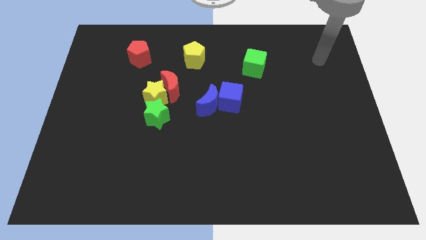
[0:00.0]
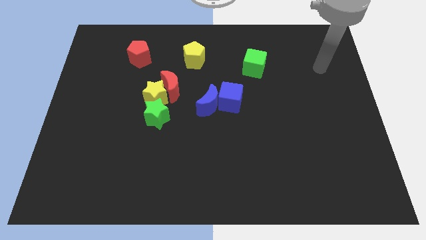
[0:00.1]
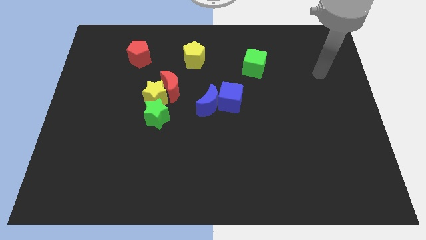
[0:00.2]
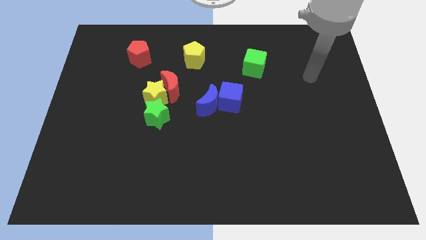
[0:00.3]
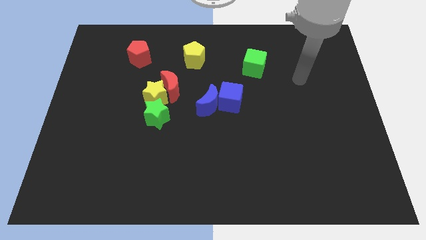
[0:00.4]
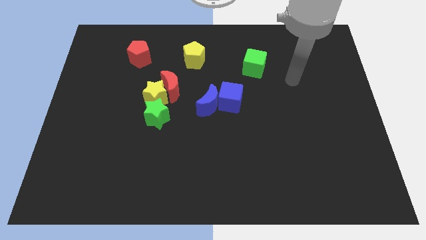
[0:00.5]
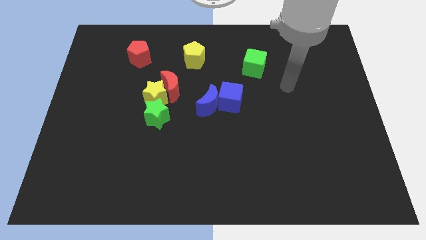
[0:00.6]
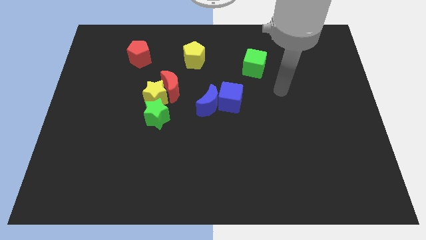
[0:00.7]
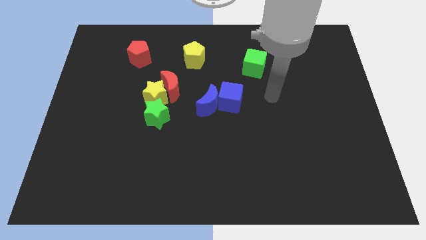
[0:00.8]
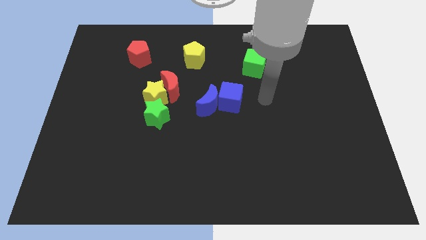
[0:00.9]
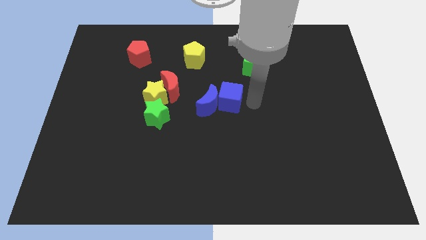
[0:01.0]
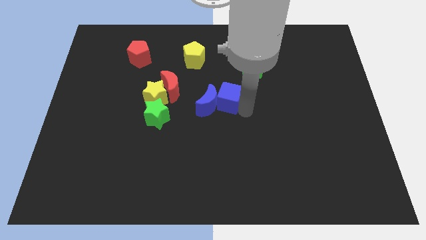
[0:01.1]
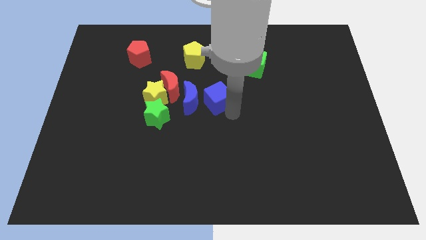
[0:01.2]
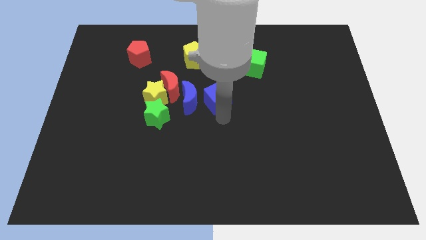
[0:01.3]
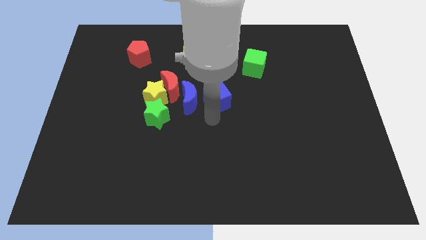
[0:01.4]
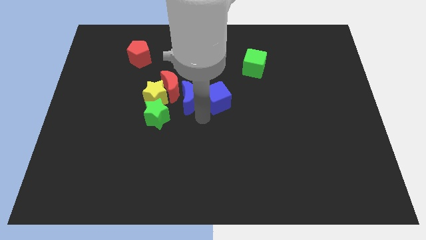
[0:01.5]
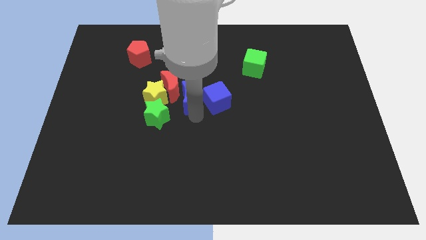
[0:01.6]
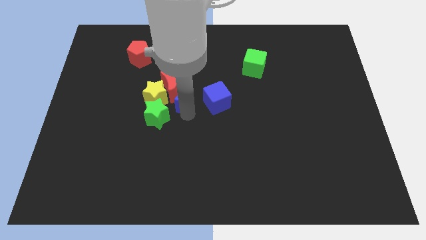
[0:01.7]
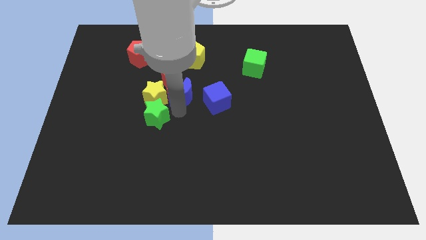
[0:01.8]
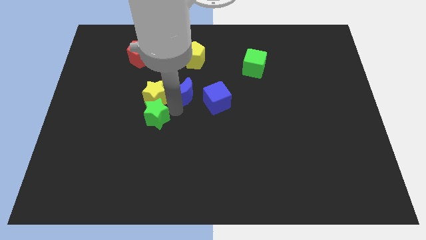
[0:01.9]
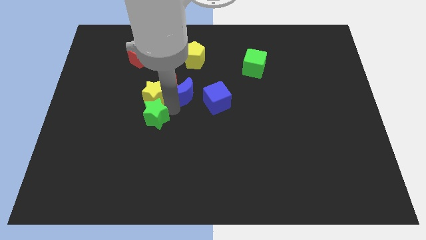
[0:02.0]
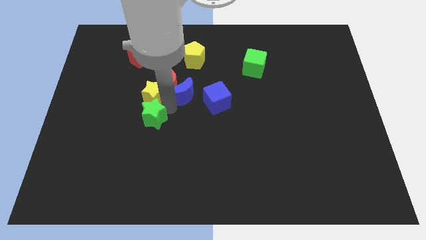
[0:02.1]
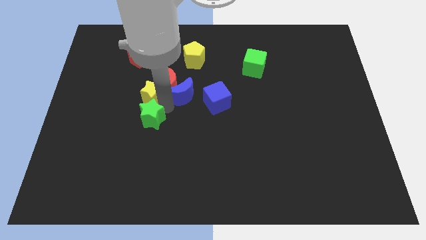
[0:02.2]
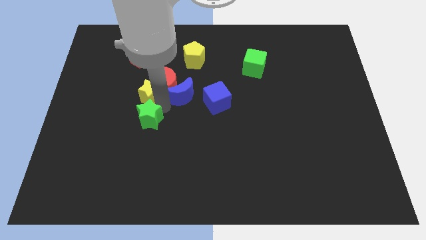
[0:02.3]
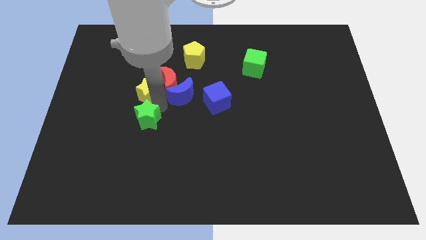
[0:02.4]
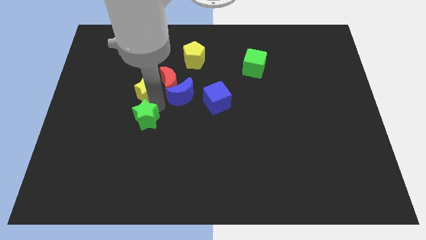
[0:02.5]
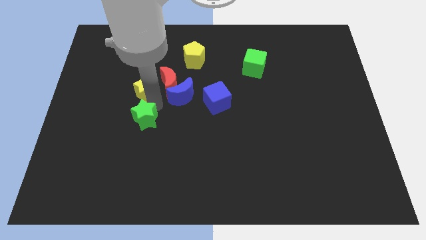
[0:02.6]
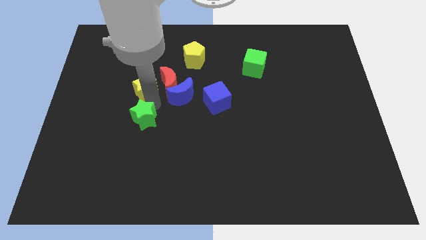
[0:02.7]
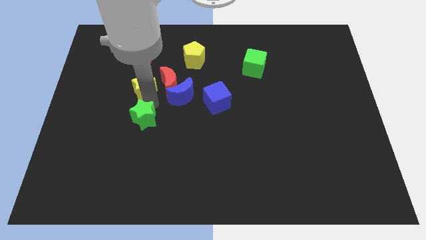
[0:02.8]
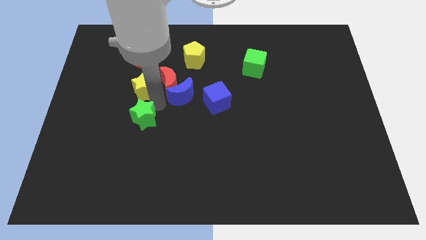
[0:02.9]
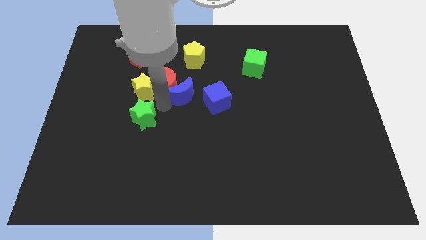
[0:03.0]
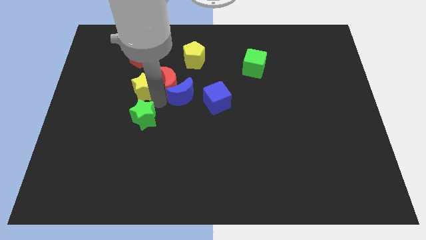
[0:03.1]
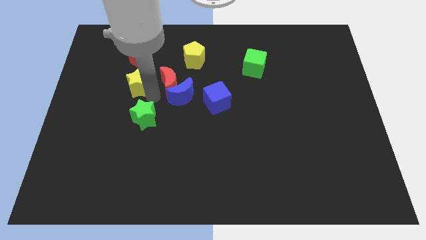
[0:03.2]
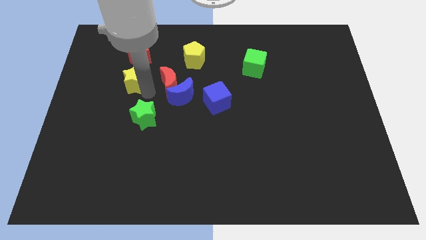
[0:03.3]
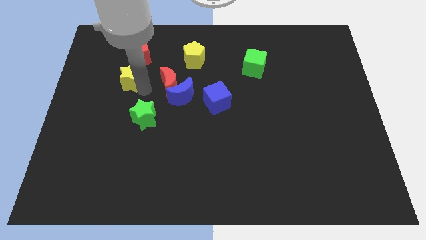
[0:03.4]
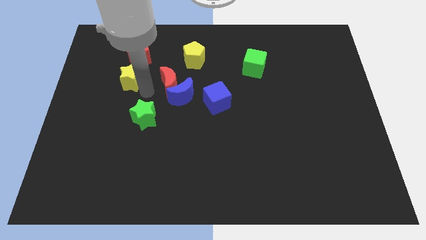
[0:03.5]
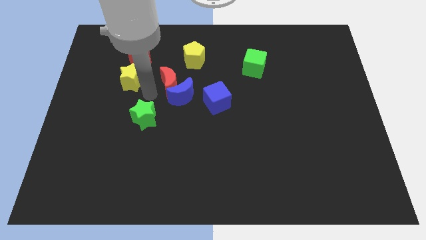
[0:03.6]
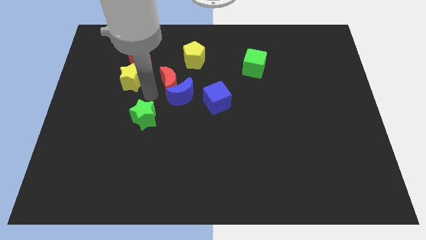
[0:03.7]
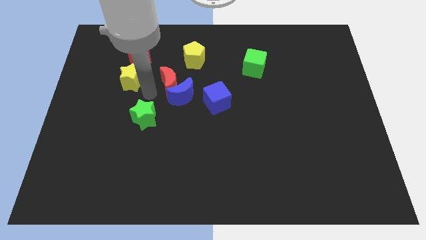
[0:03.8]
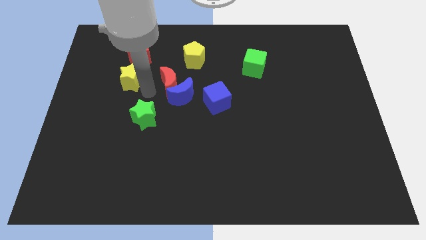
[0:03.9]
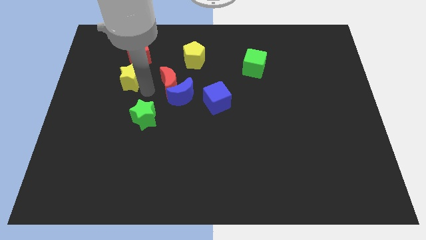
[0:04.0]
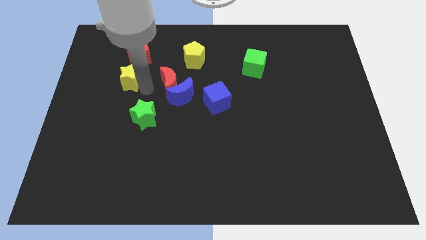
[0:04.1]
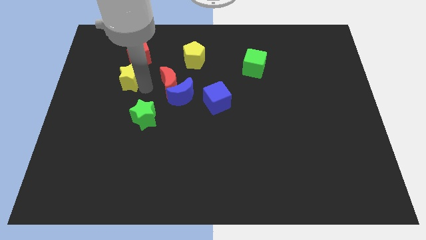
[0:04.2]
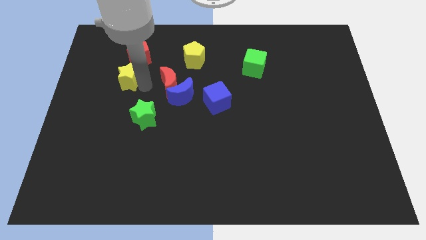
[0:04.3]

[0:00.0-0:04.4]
move the yellow star away from the red moon and green star

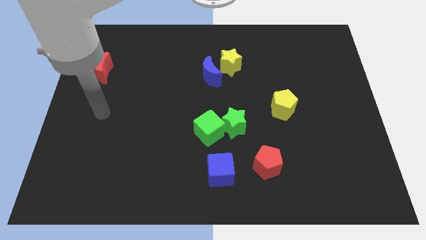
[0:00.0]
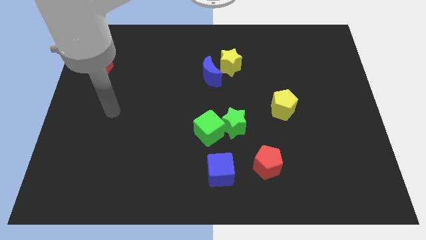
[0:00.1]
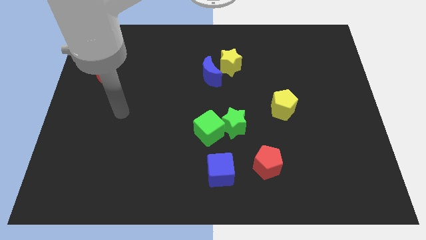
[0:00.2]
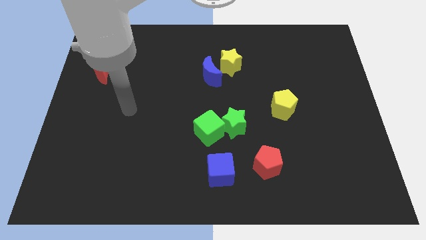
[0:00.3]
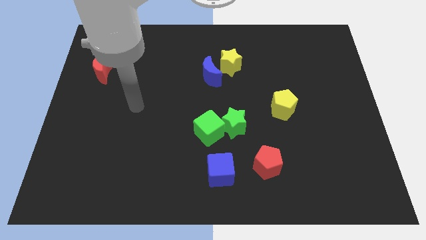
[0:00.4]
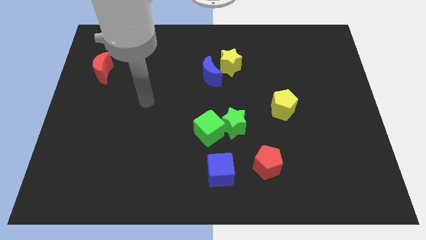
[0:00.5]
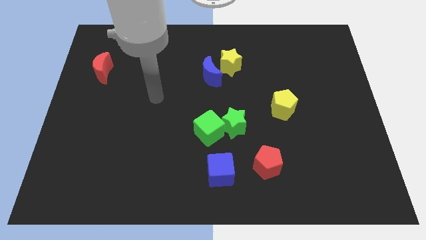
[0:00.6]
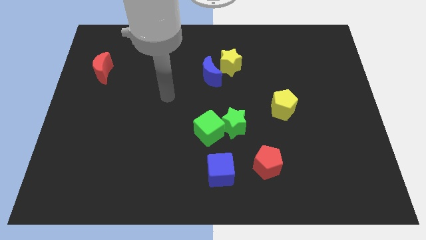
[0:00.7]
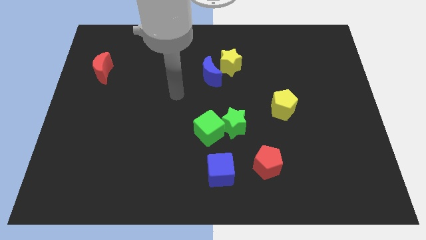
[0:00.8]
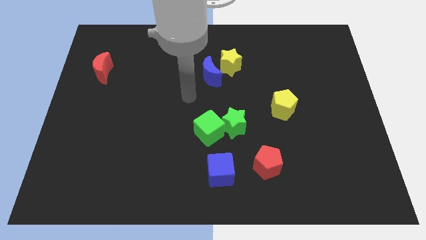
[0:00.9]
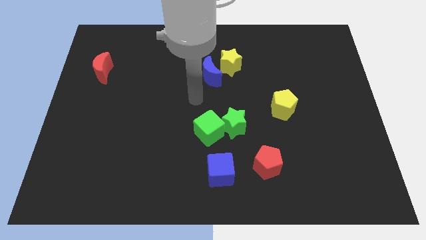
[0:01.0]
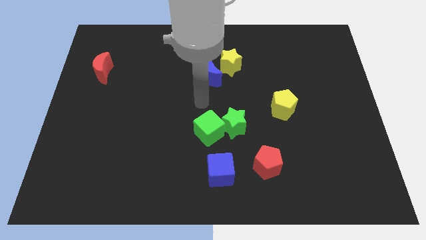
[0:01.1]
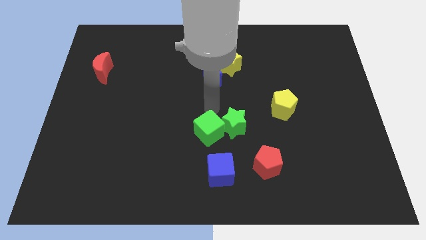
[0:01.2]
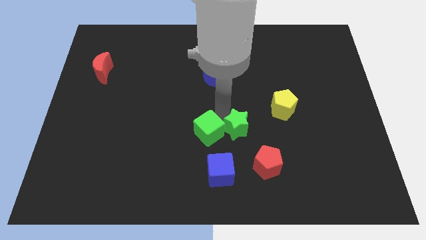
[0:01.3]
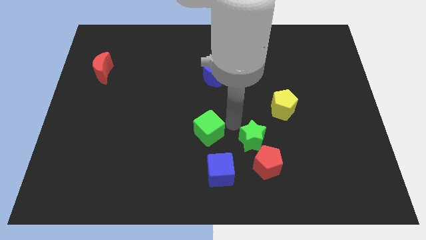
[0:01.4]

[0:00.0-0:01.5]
separate the green cube from the green star

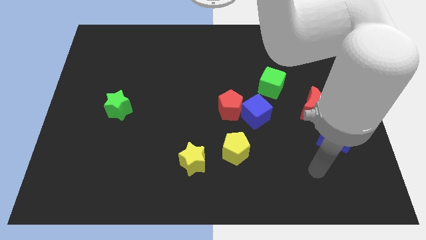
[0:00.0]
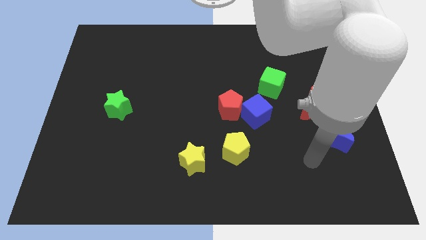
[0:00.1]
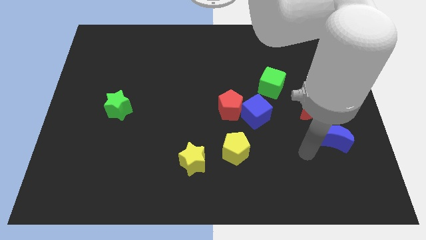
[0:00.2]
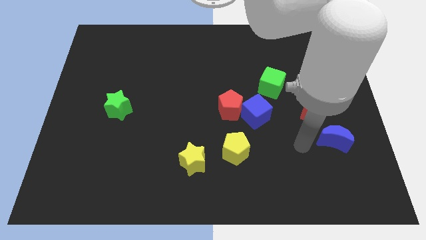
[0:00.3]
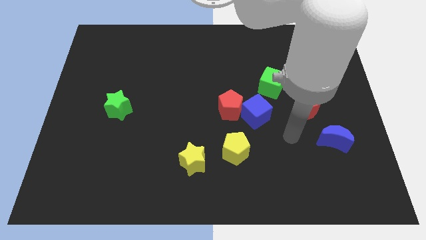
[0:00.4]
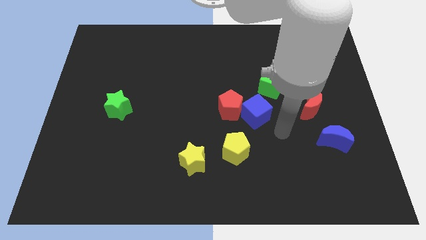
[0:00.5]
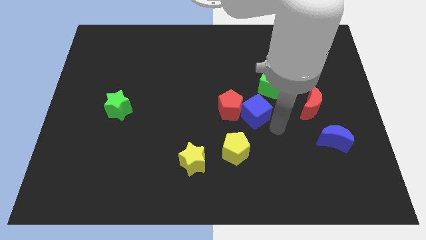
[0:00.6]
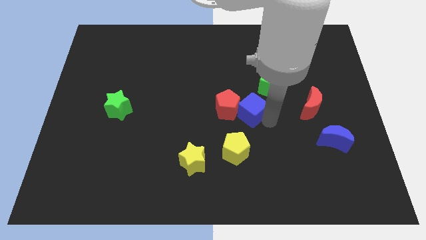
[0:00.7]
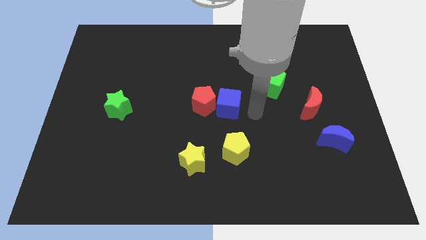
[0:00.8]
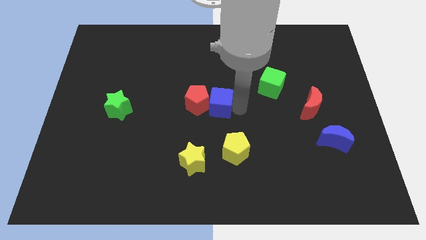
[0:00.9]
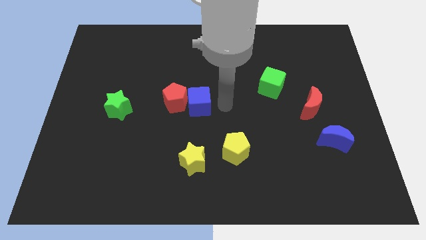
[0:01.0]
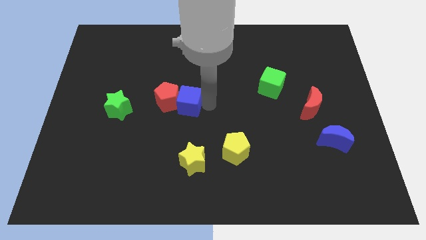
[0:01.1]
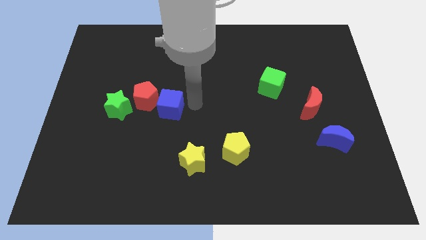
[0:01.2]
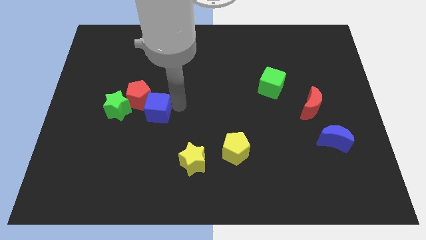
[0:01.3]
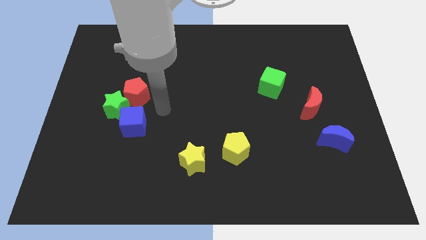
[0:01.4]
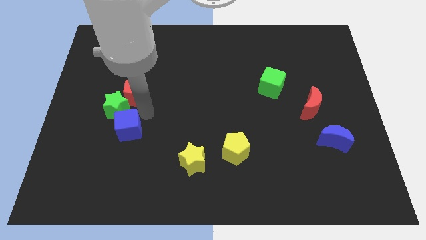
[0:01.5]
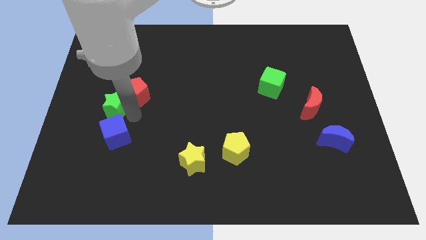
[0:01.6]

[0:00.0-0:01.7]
separate the red pentagon from the blue cube

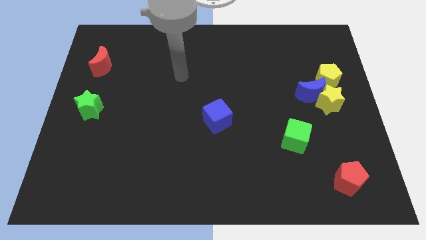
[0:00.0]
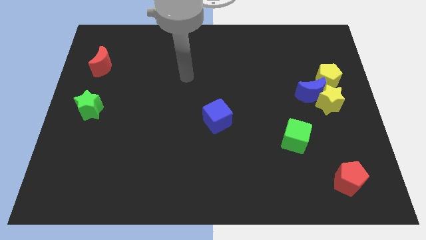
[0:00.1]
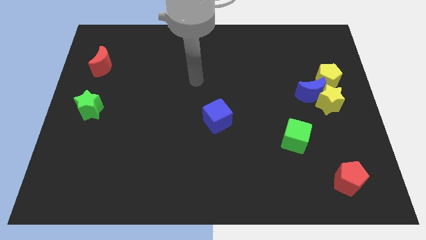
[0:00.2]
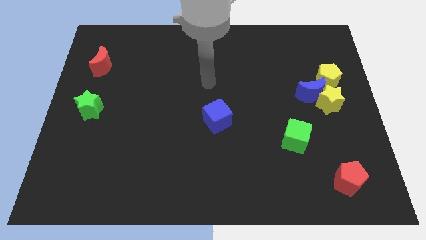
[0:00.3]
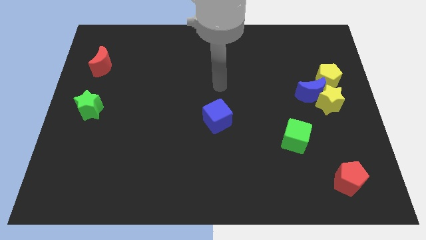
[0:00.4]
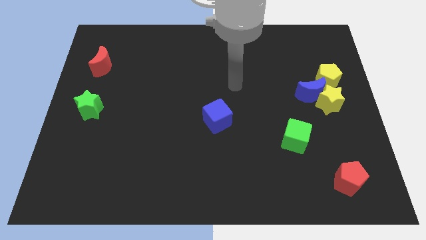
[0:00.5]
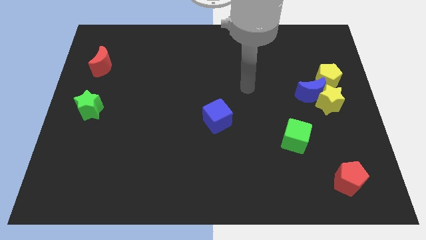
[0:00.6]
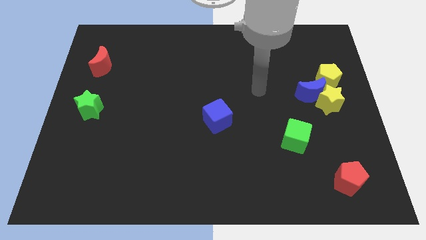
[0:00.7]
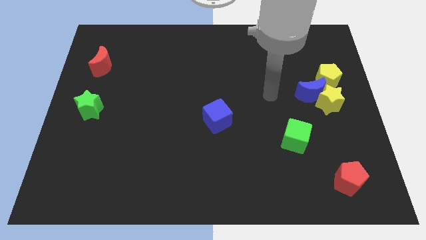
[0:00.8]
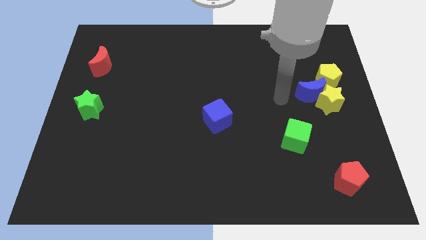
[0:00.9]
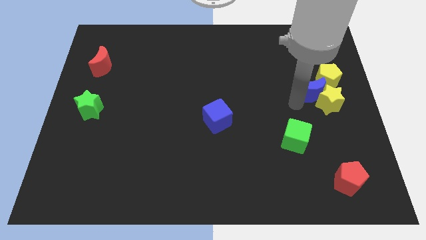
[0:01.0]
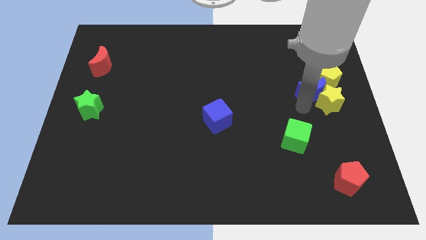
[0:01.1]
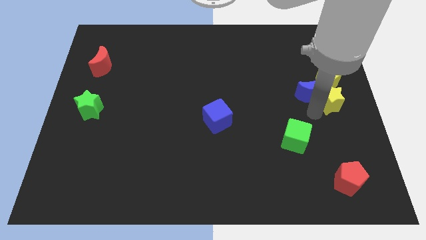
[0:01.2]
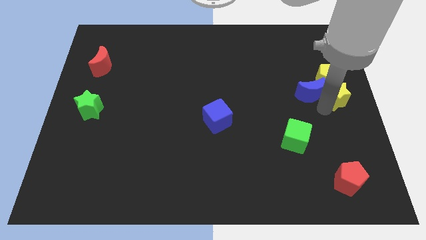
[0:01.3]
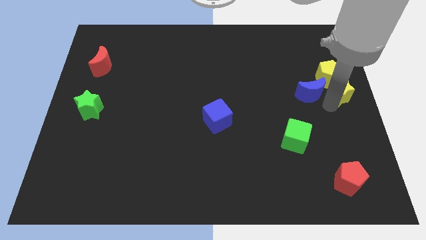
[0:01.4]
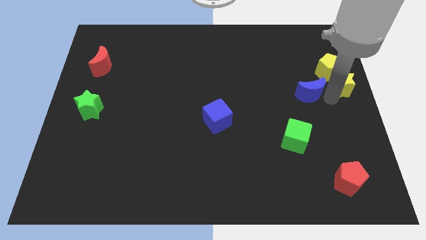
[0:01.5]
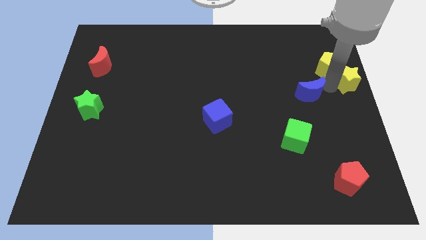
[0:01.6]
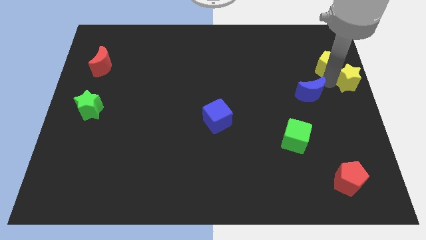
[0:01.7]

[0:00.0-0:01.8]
move the blue moon away from the yellow star and yellow pentagon
